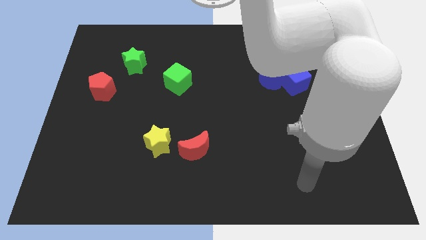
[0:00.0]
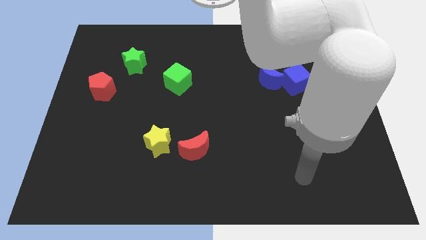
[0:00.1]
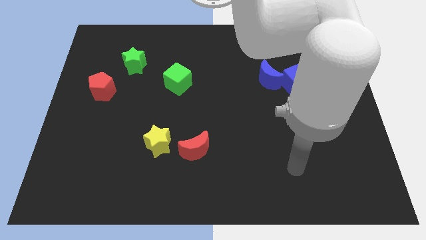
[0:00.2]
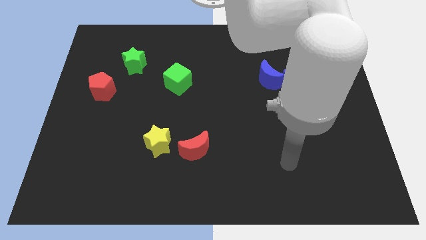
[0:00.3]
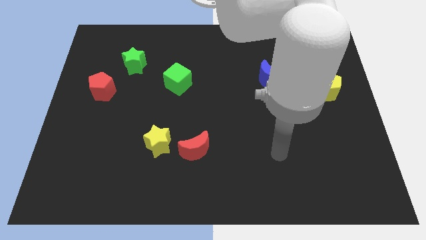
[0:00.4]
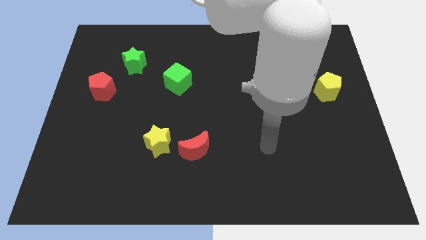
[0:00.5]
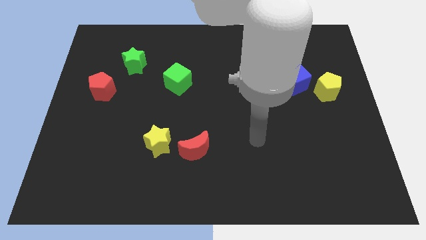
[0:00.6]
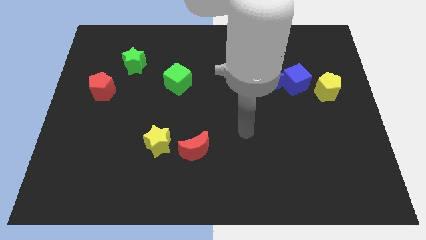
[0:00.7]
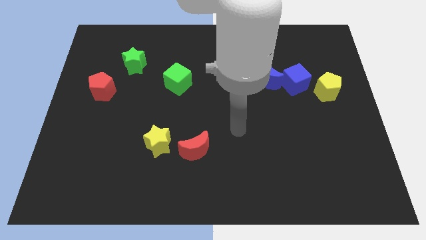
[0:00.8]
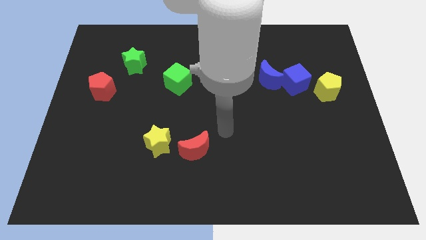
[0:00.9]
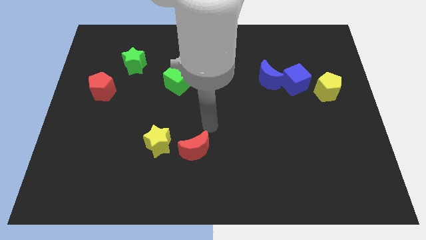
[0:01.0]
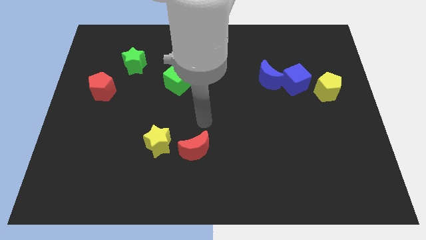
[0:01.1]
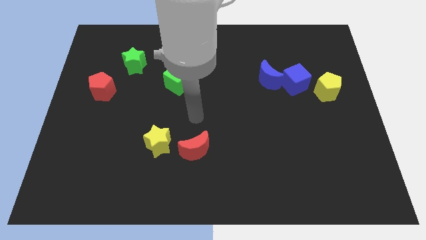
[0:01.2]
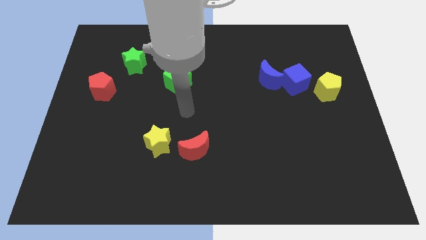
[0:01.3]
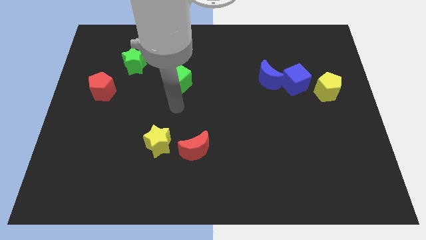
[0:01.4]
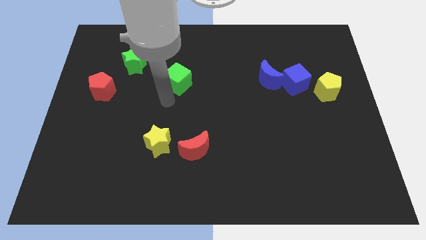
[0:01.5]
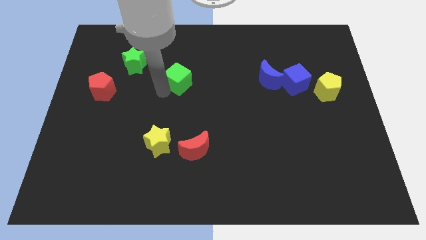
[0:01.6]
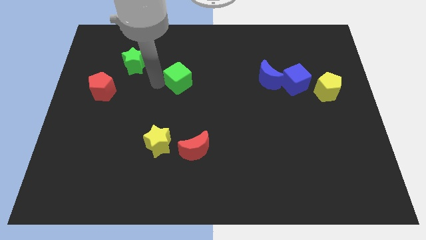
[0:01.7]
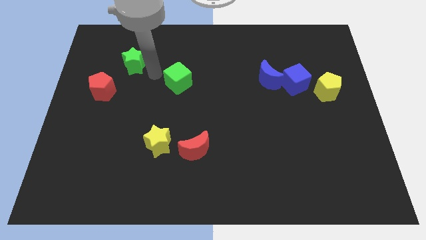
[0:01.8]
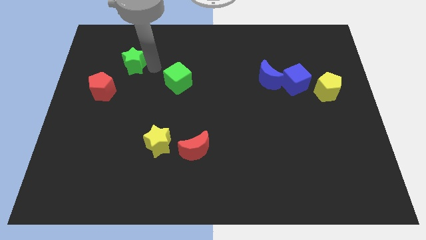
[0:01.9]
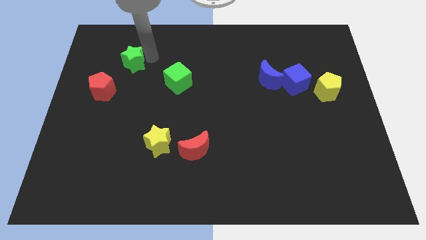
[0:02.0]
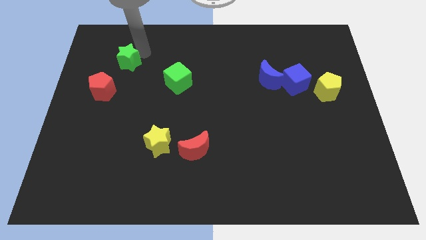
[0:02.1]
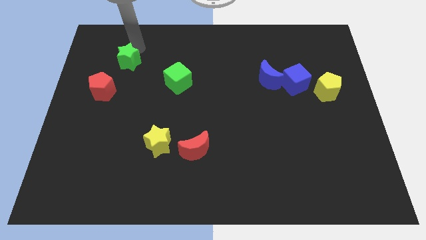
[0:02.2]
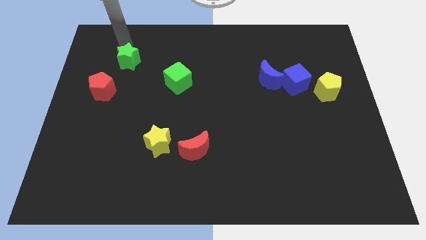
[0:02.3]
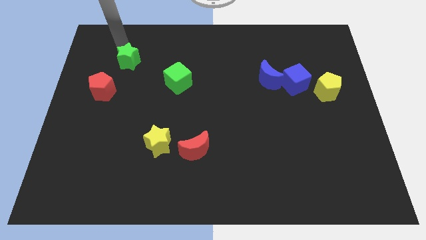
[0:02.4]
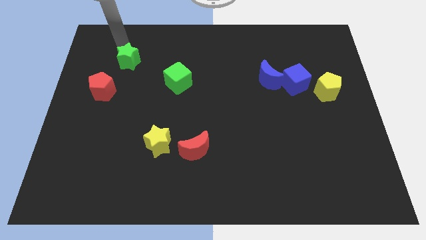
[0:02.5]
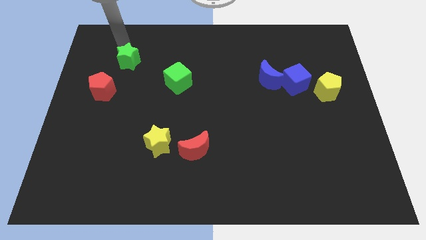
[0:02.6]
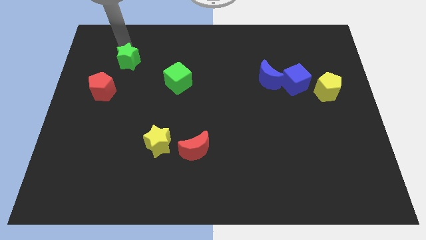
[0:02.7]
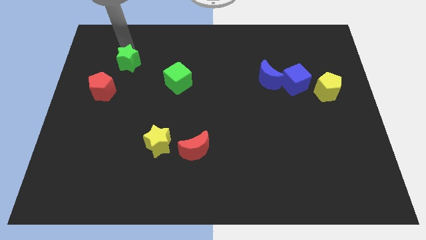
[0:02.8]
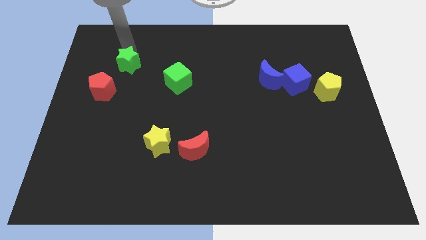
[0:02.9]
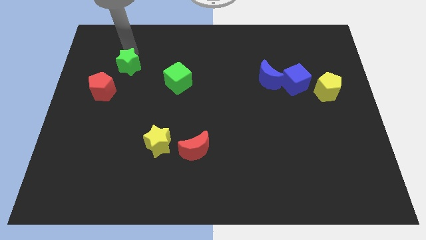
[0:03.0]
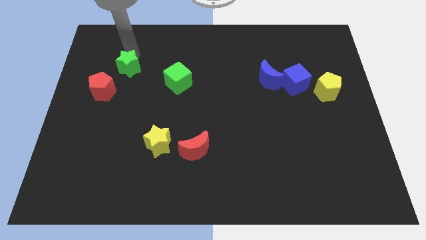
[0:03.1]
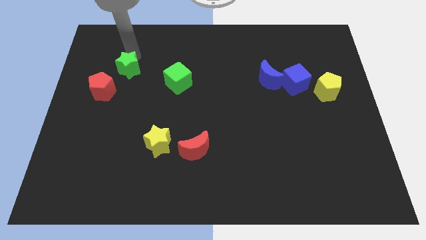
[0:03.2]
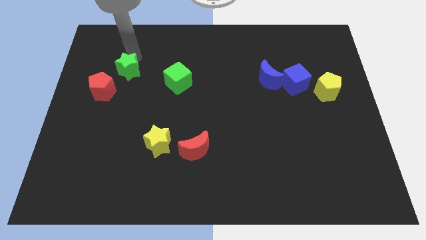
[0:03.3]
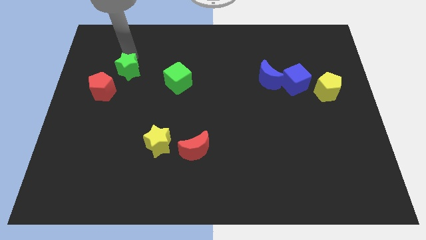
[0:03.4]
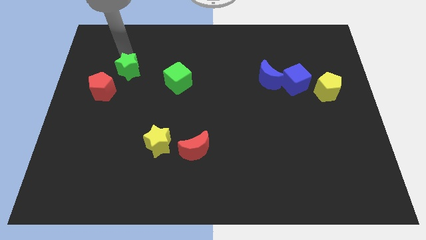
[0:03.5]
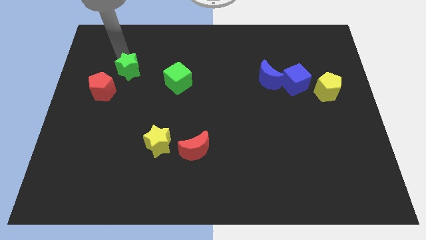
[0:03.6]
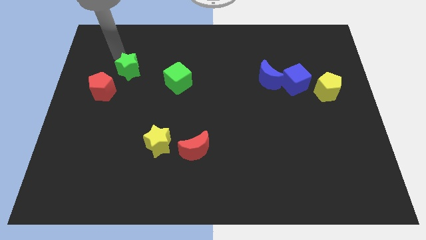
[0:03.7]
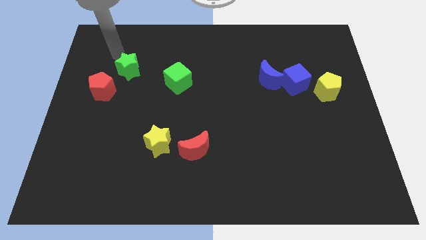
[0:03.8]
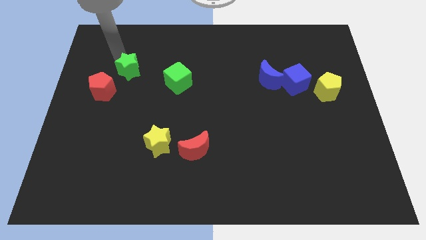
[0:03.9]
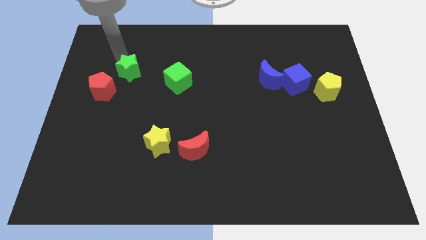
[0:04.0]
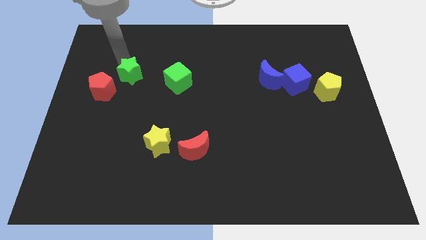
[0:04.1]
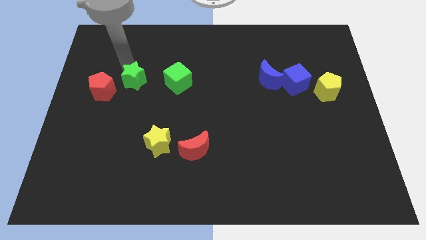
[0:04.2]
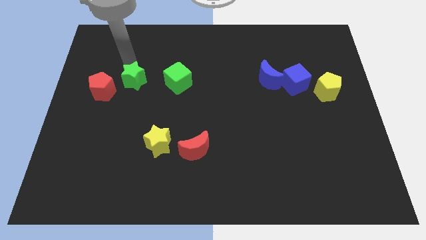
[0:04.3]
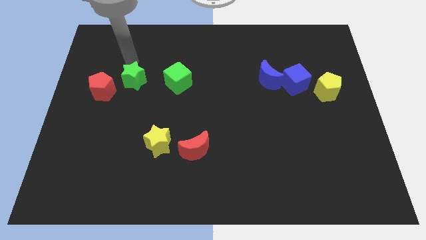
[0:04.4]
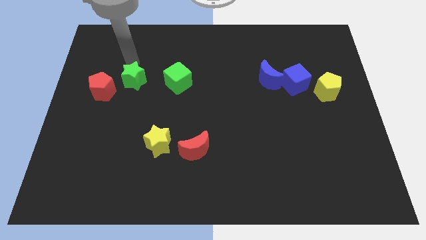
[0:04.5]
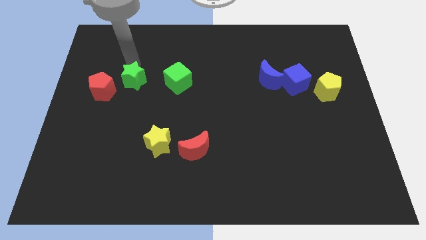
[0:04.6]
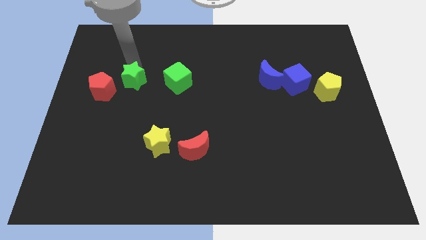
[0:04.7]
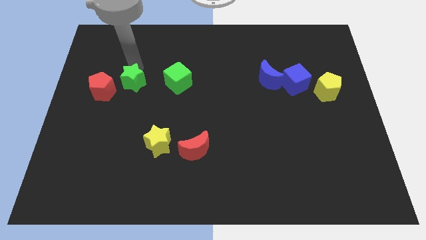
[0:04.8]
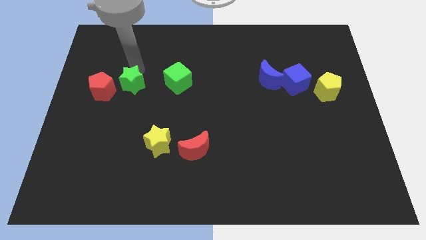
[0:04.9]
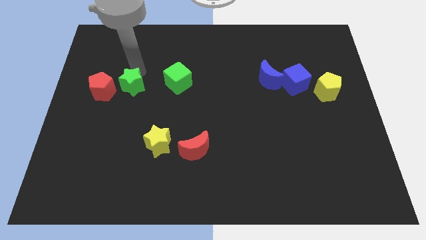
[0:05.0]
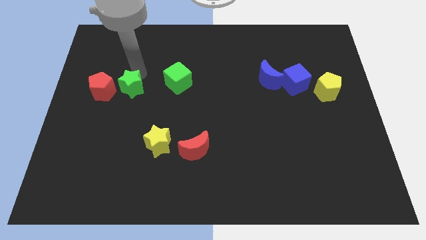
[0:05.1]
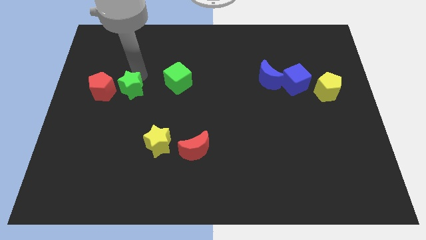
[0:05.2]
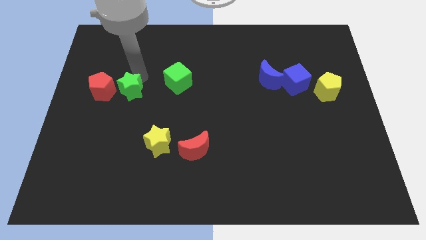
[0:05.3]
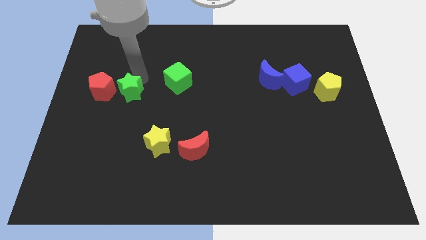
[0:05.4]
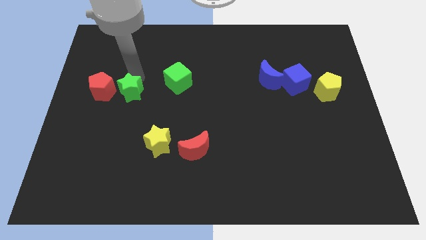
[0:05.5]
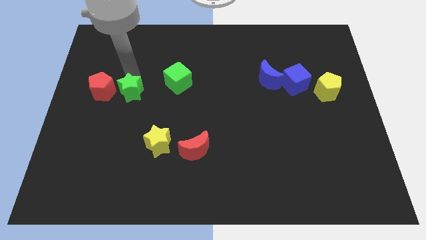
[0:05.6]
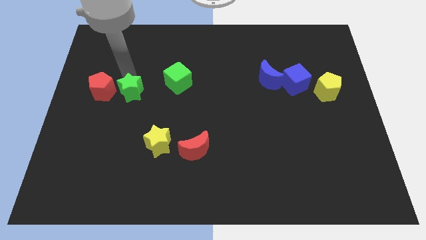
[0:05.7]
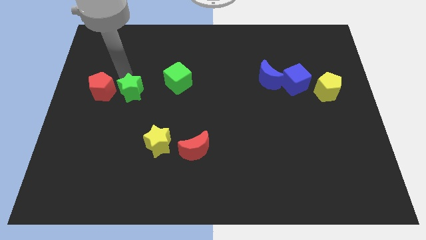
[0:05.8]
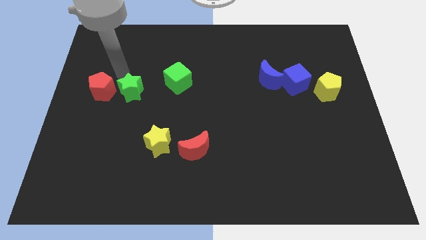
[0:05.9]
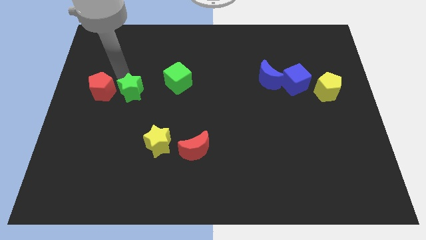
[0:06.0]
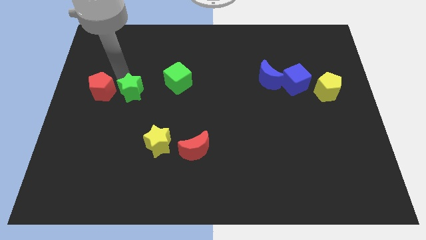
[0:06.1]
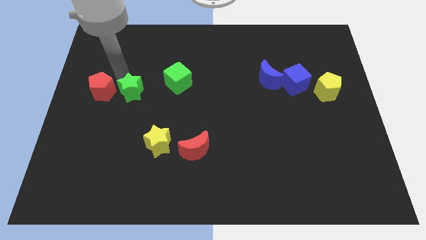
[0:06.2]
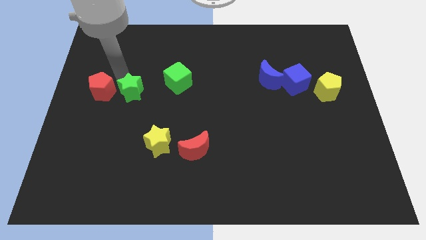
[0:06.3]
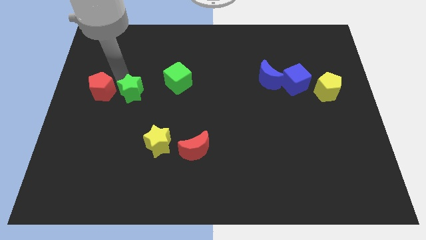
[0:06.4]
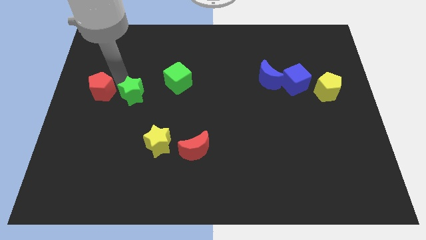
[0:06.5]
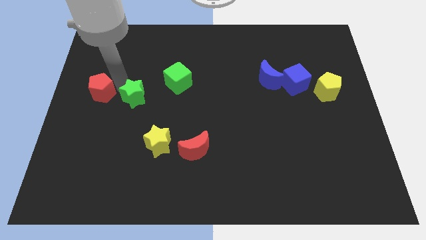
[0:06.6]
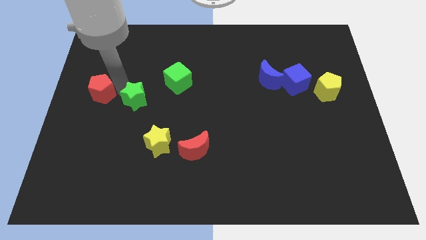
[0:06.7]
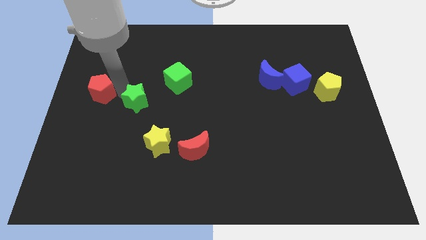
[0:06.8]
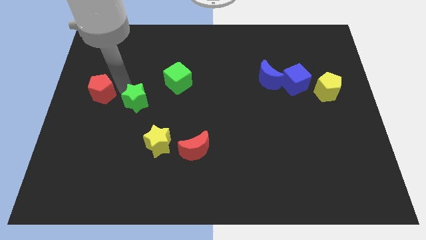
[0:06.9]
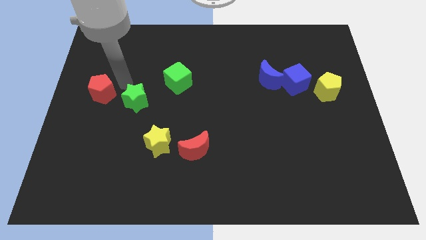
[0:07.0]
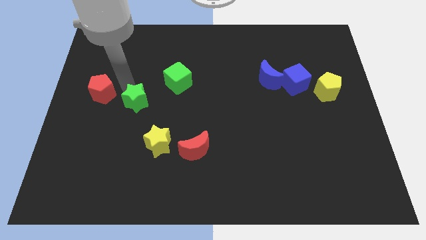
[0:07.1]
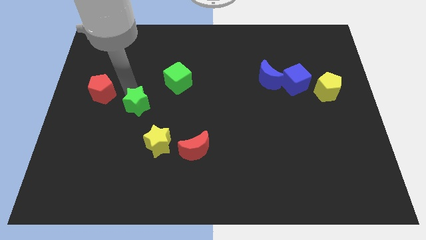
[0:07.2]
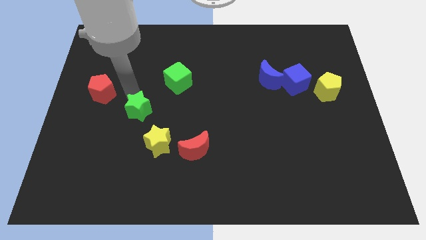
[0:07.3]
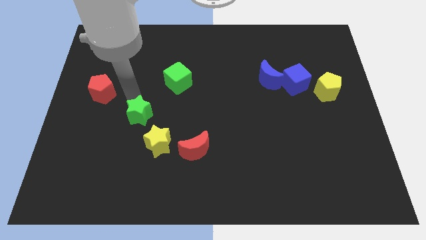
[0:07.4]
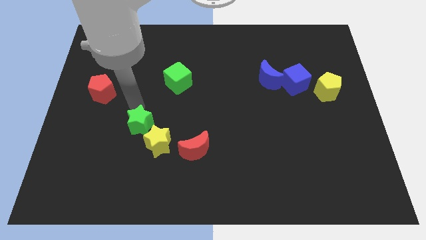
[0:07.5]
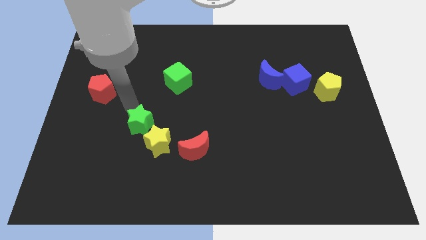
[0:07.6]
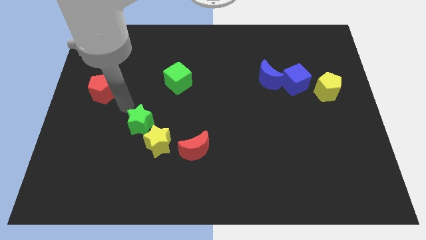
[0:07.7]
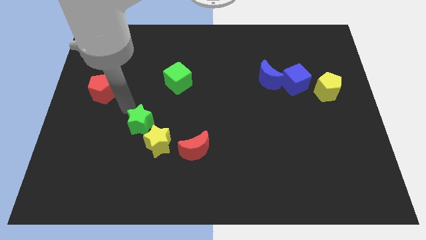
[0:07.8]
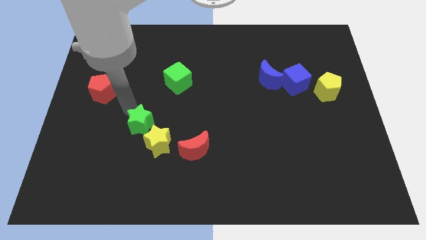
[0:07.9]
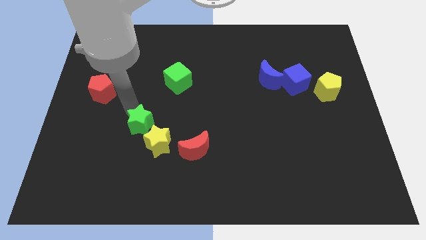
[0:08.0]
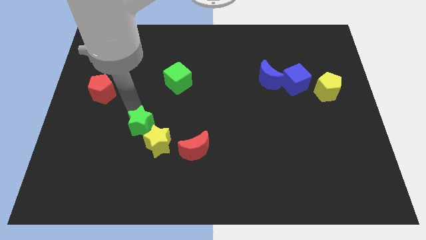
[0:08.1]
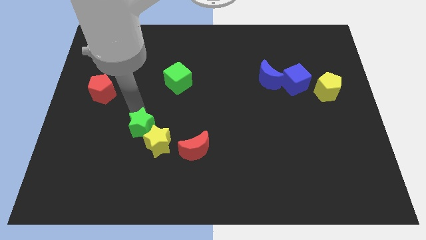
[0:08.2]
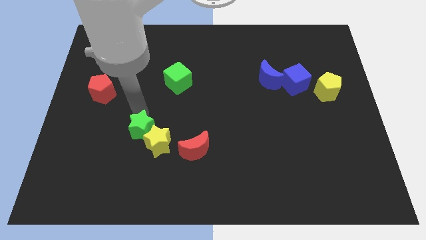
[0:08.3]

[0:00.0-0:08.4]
push the green star to the yellow star
